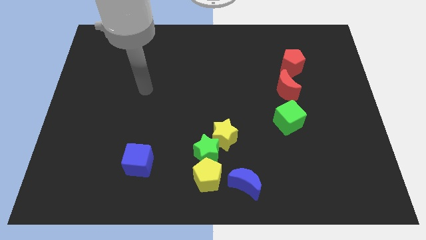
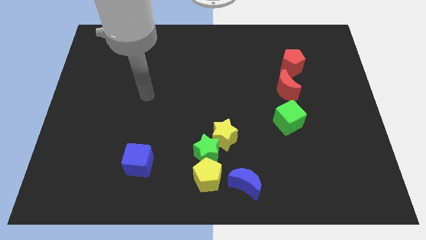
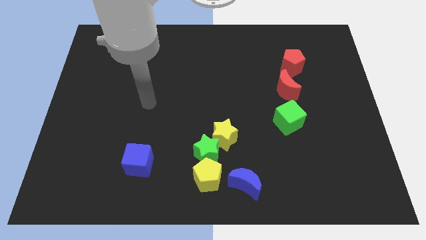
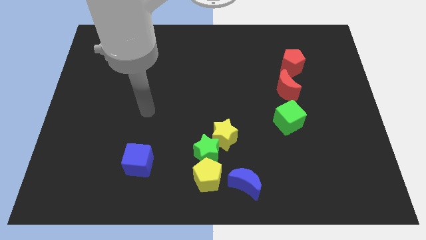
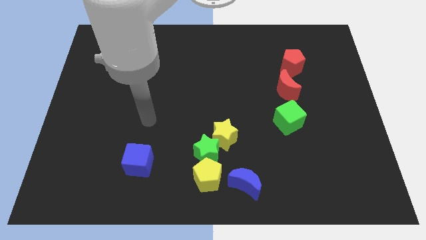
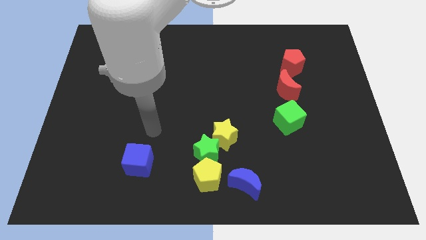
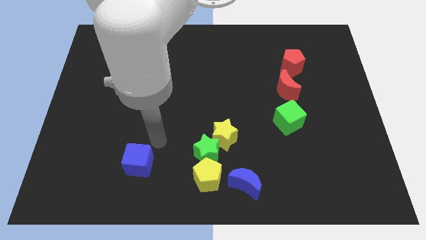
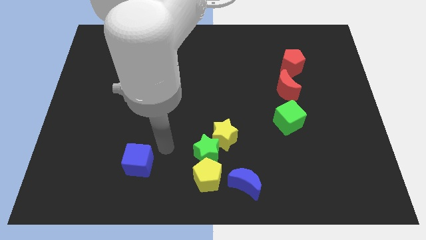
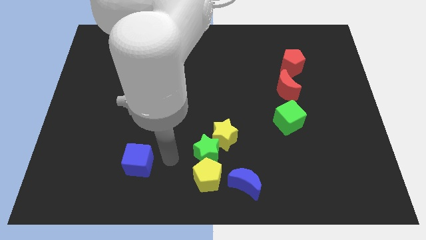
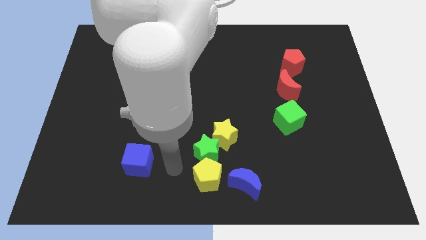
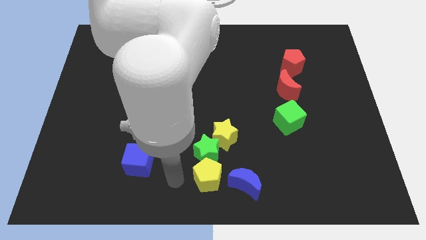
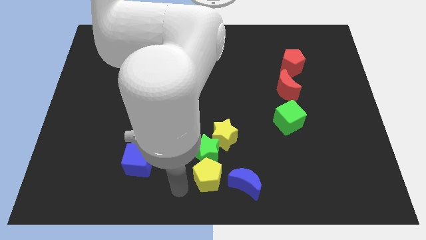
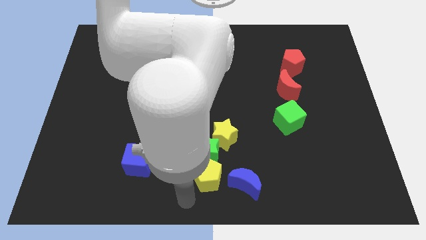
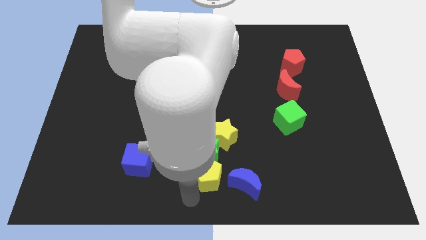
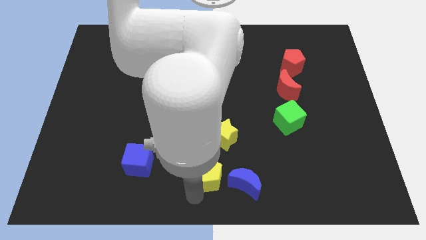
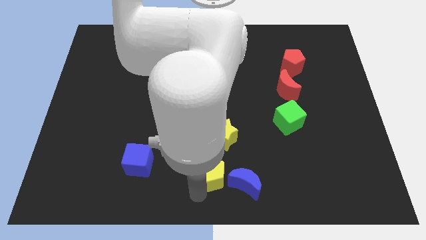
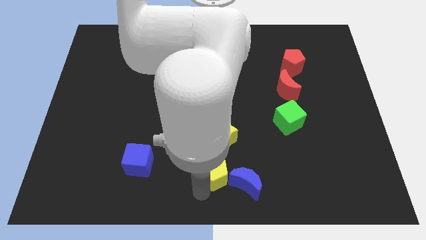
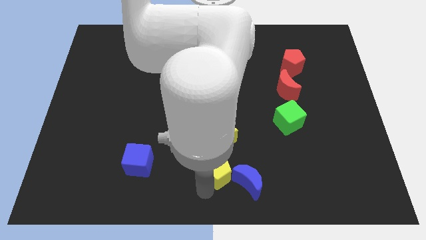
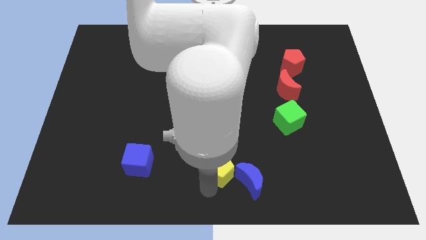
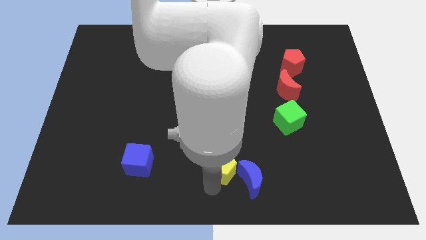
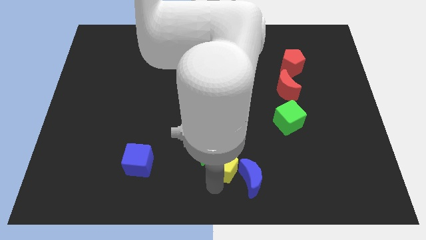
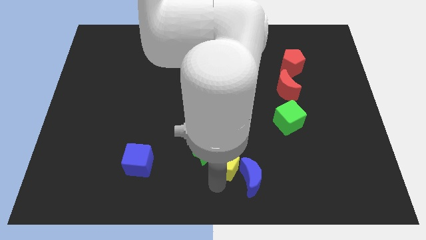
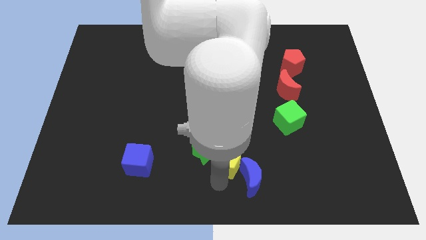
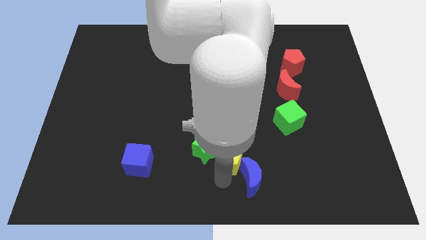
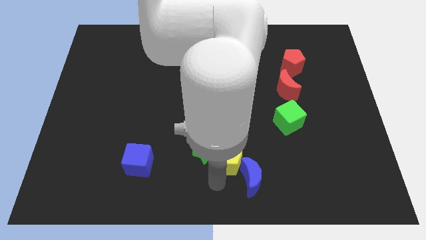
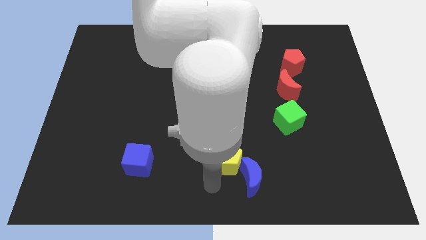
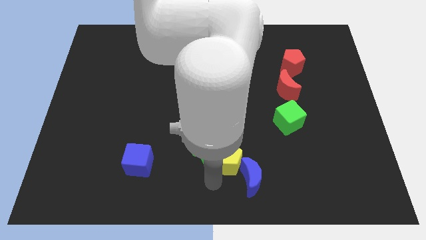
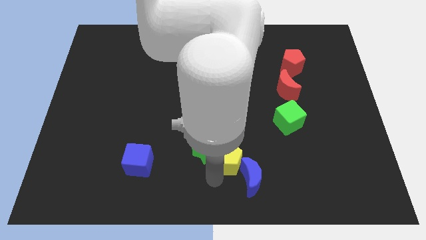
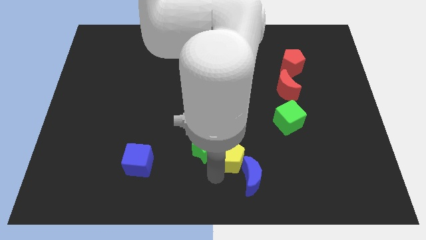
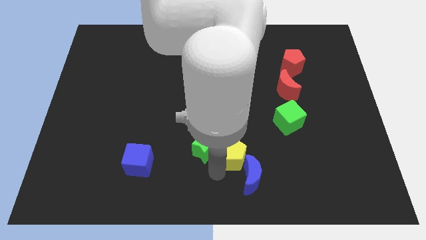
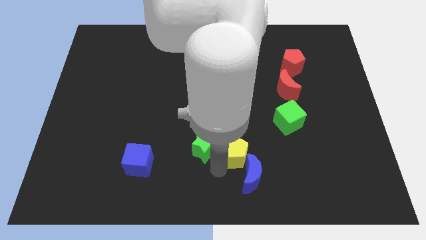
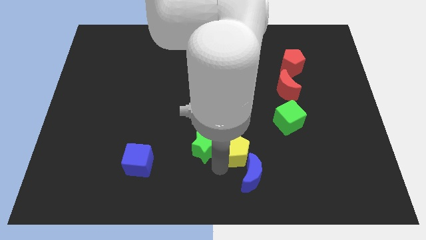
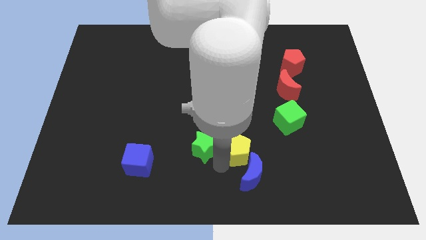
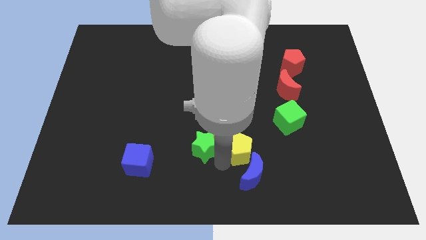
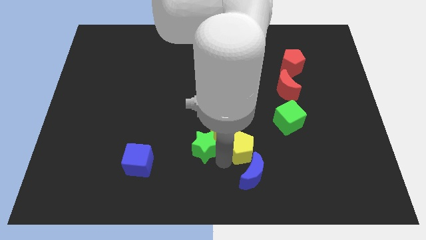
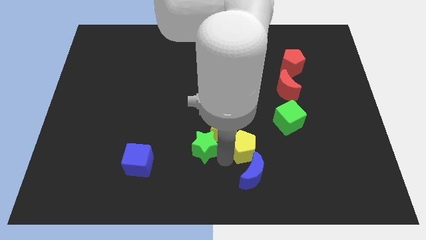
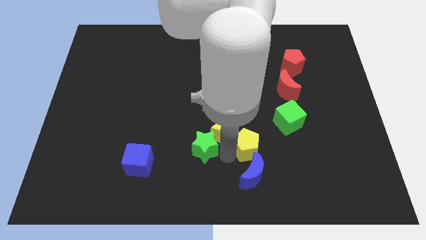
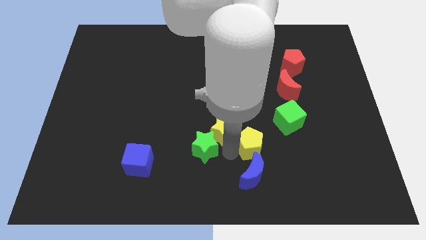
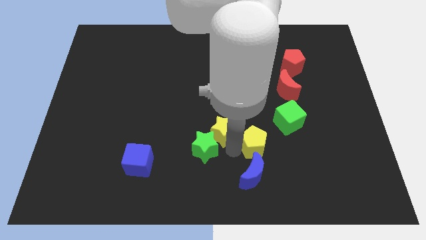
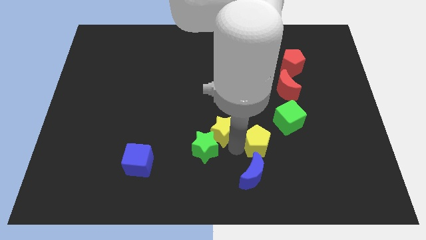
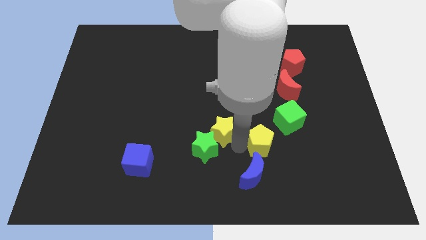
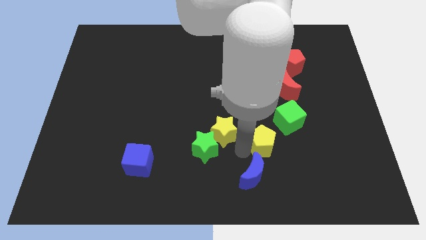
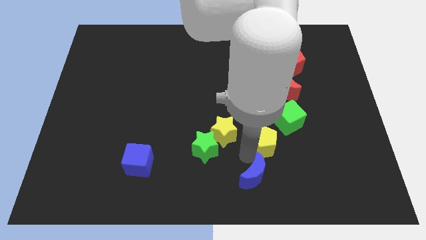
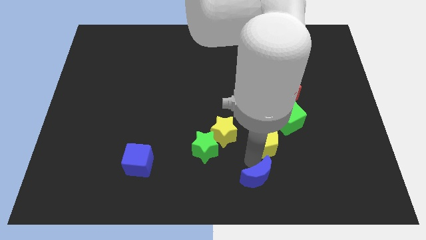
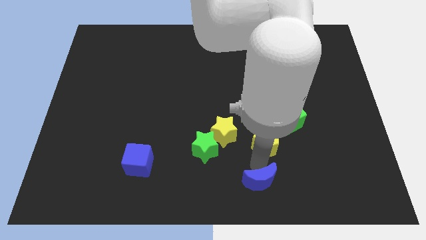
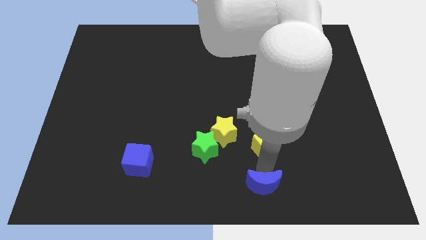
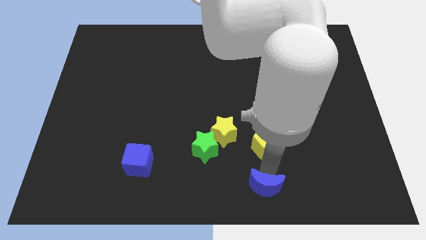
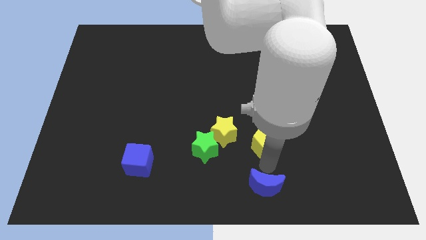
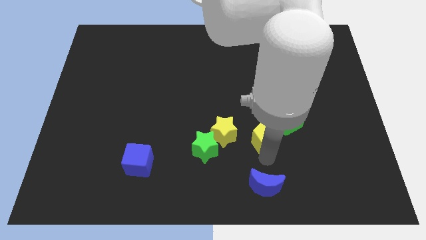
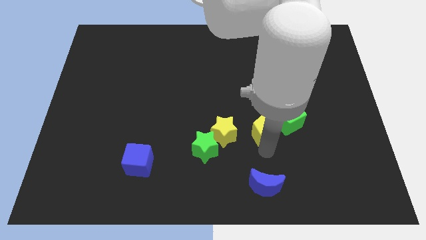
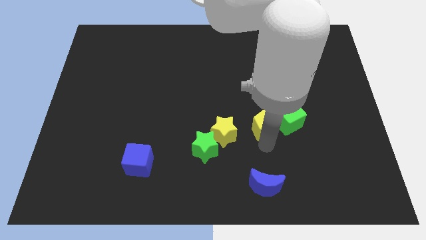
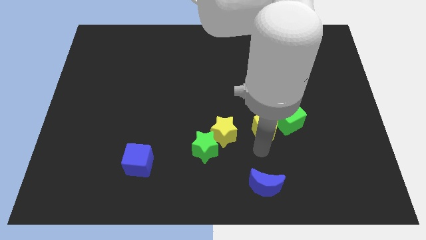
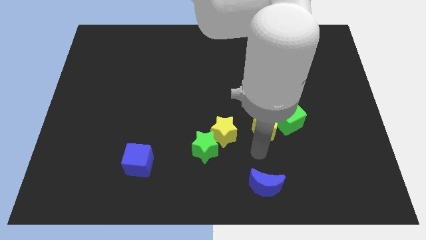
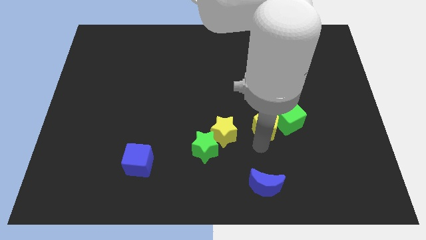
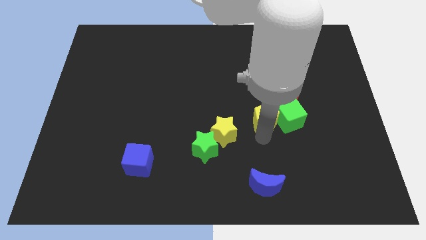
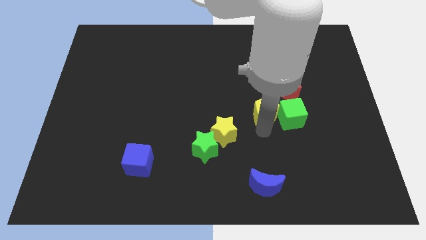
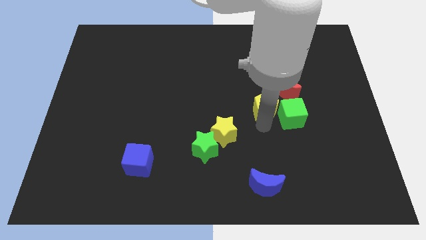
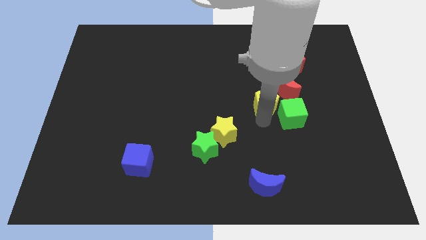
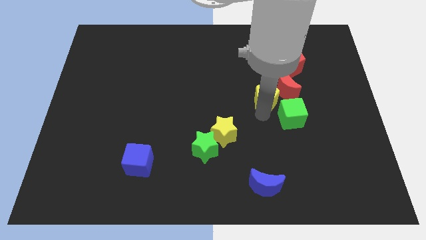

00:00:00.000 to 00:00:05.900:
put the yellow pentagon next to the red moon

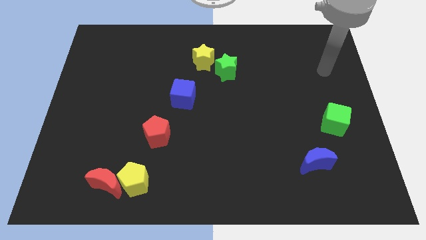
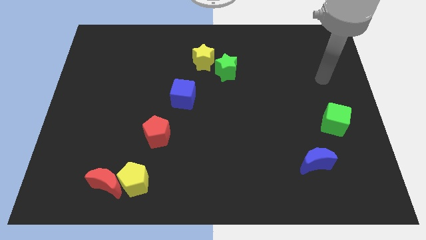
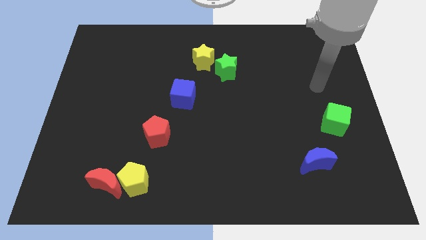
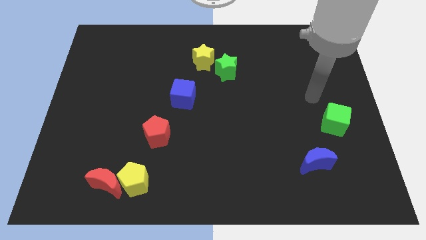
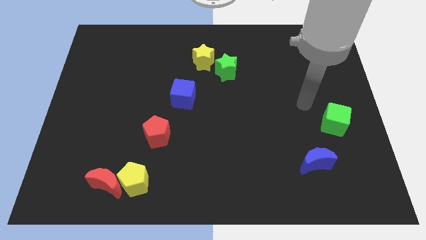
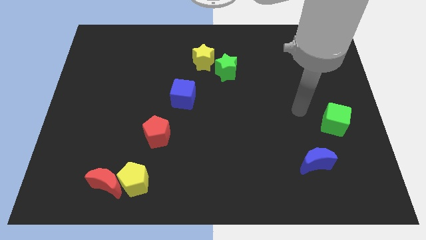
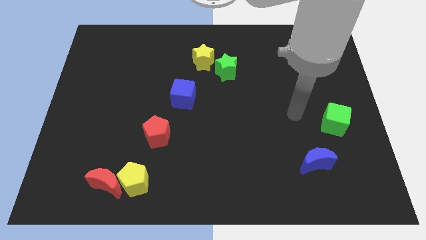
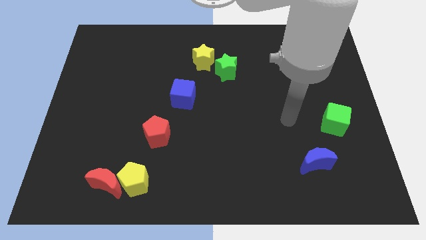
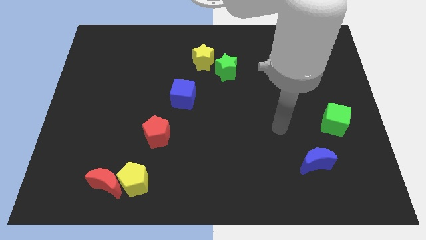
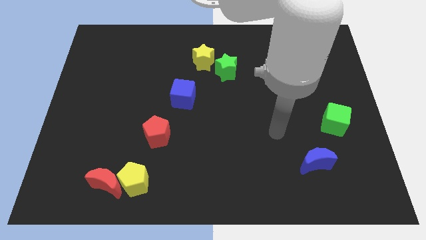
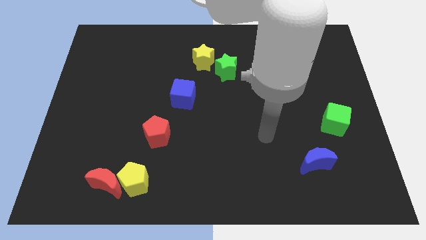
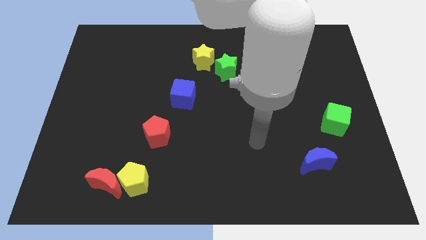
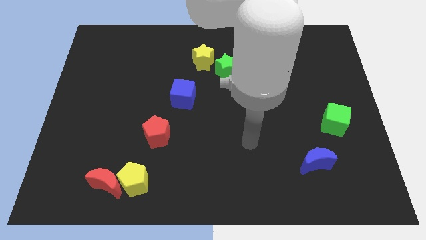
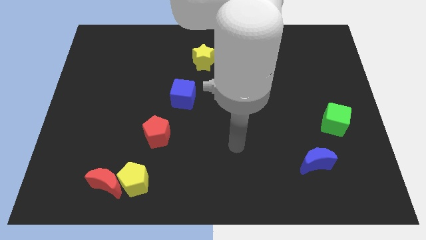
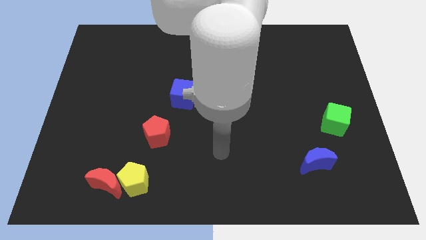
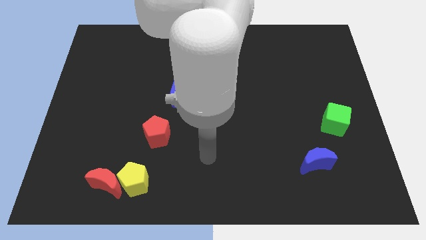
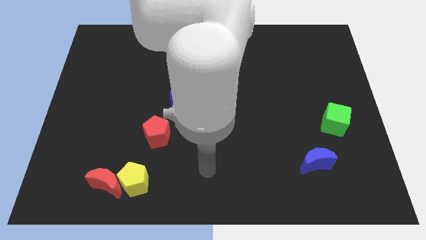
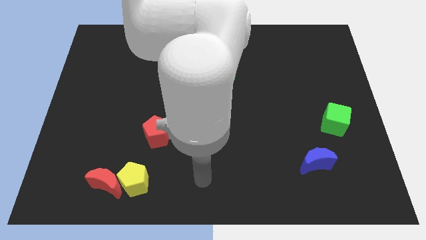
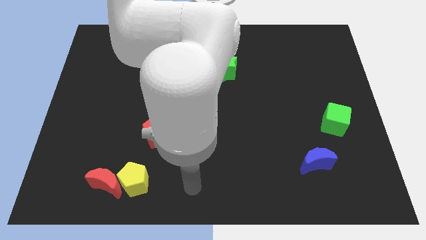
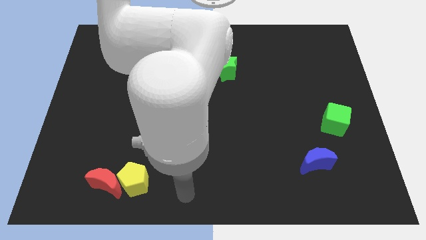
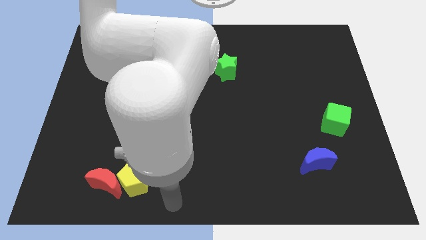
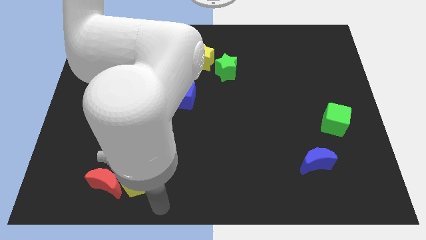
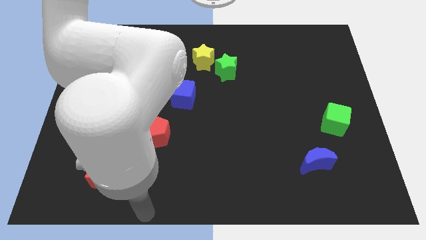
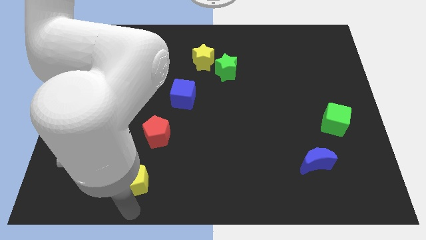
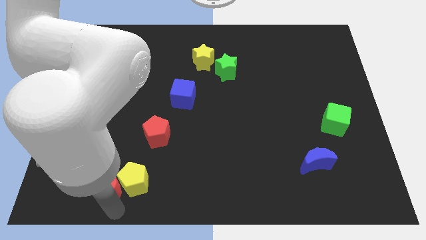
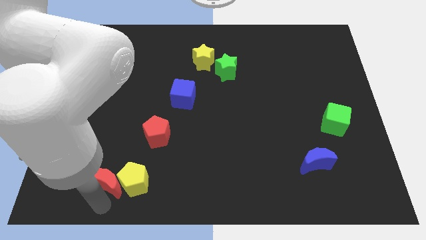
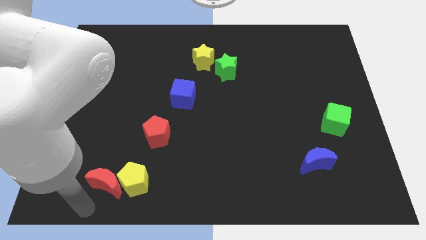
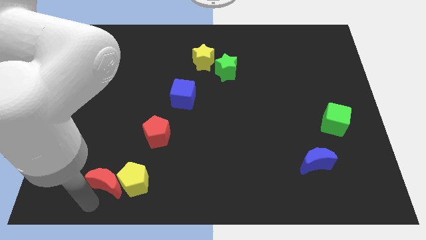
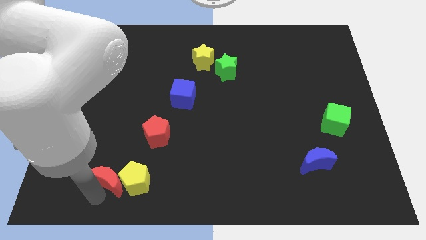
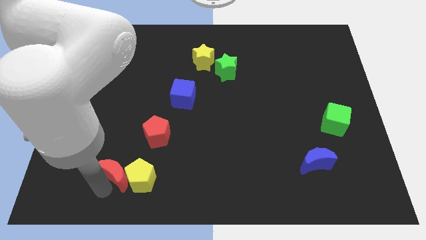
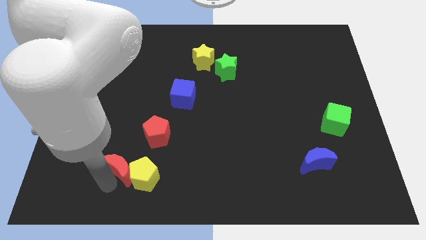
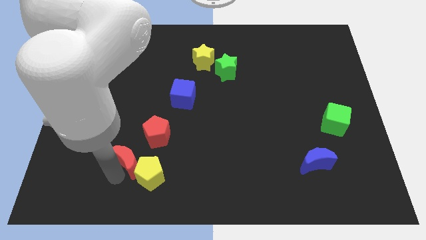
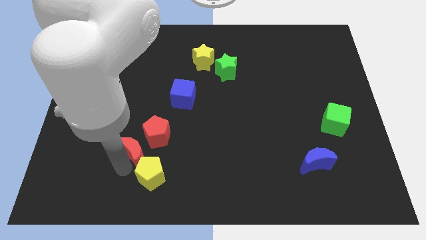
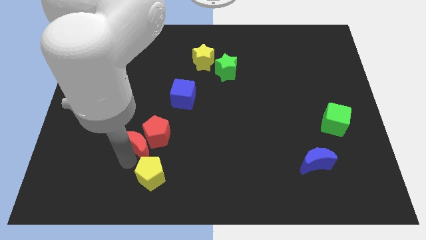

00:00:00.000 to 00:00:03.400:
push the red moon next to the red pentagon
